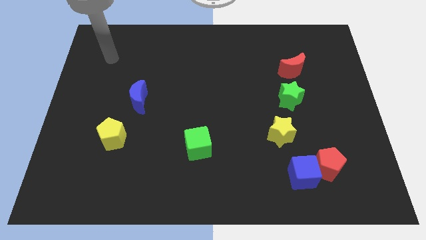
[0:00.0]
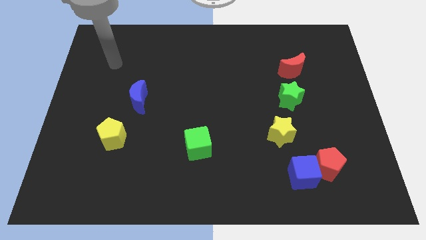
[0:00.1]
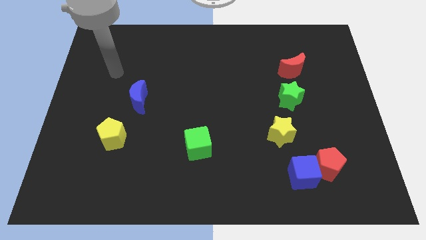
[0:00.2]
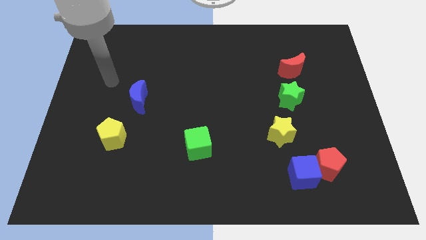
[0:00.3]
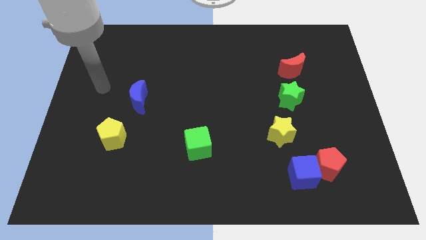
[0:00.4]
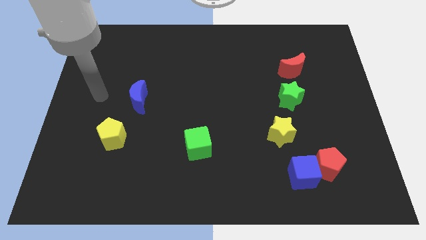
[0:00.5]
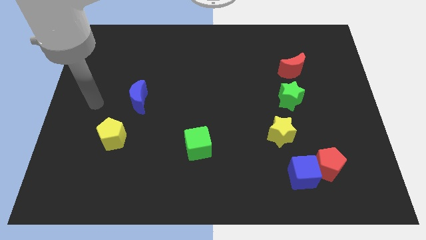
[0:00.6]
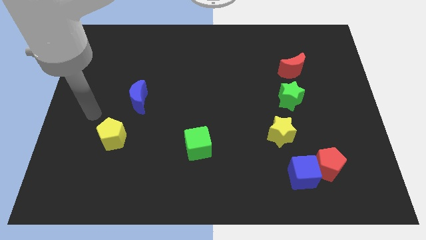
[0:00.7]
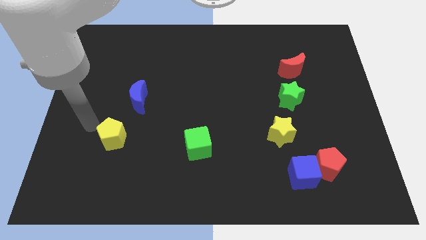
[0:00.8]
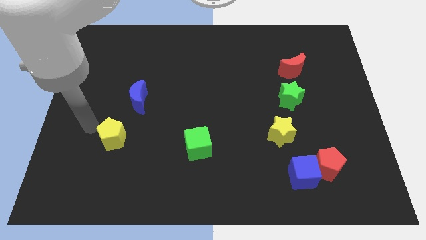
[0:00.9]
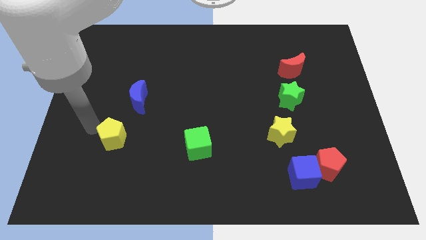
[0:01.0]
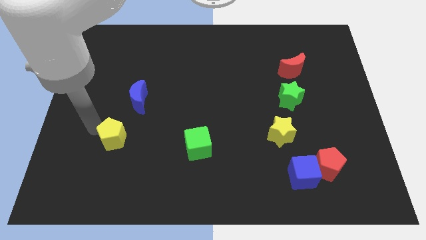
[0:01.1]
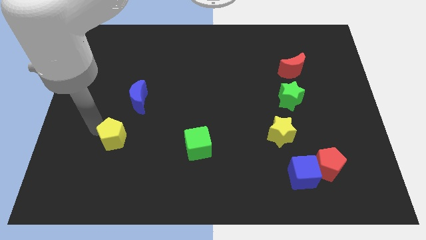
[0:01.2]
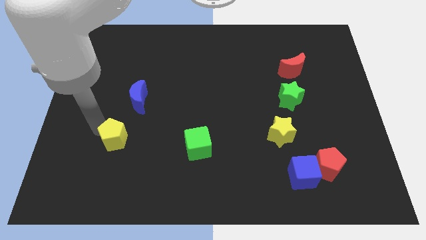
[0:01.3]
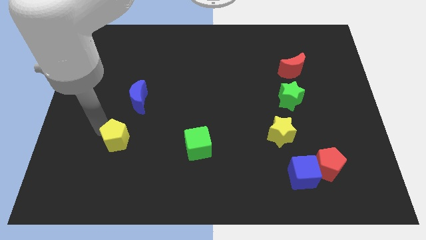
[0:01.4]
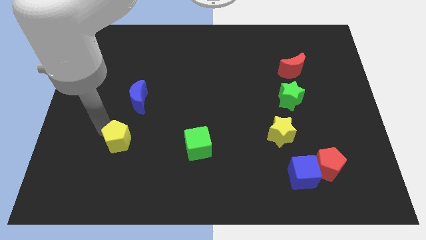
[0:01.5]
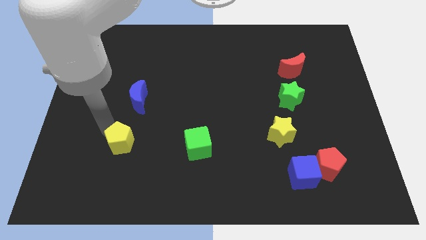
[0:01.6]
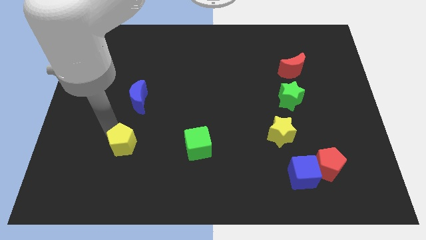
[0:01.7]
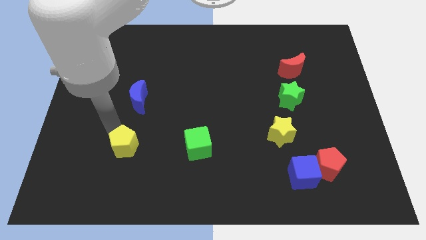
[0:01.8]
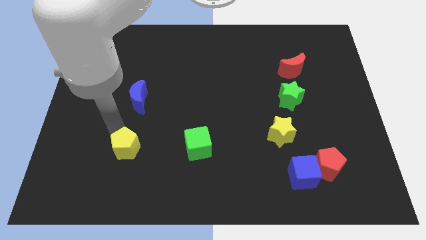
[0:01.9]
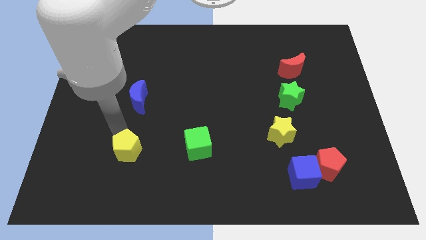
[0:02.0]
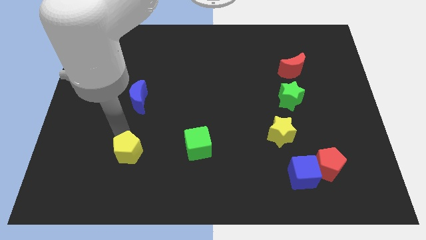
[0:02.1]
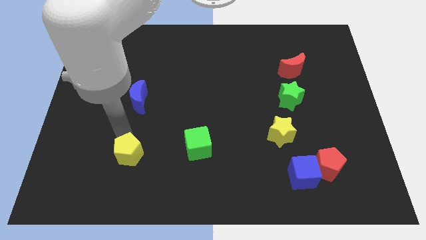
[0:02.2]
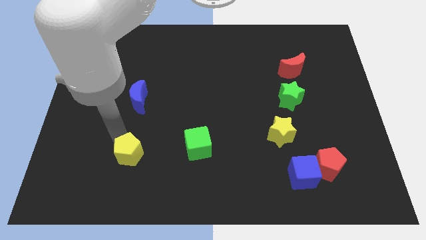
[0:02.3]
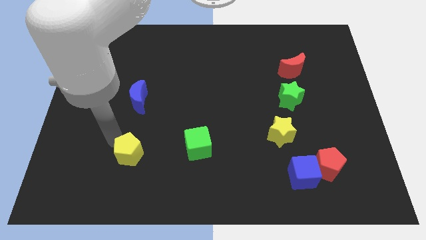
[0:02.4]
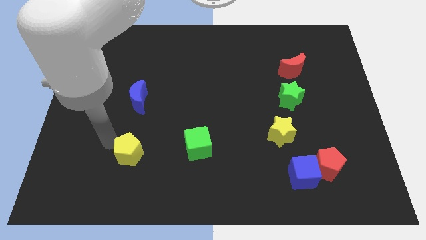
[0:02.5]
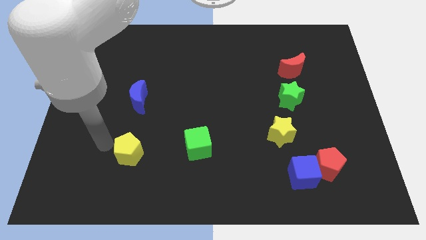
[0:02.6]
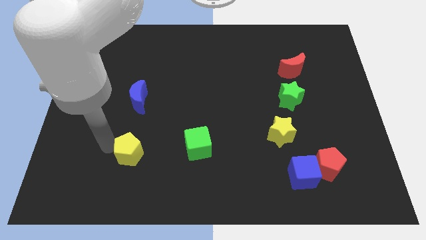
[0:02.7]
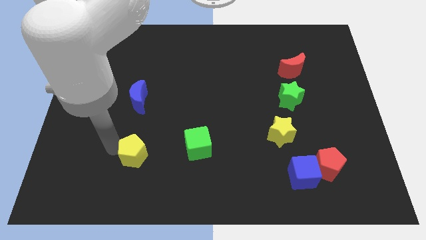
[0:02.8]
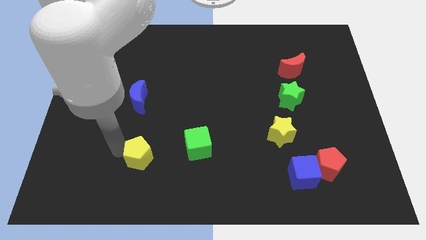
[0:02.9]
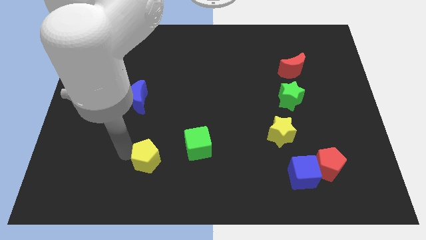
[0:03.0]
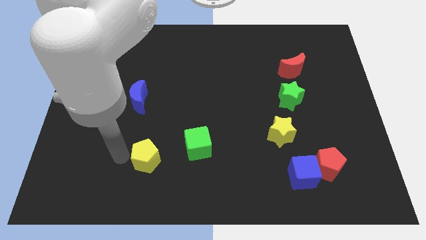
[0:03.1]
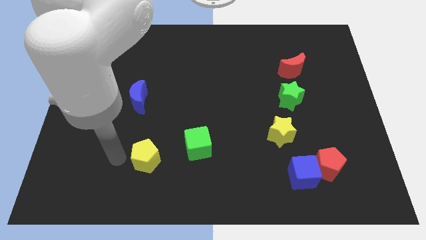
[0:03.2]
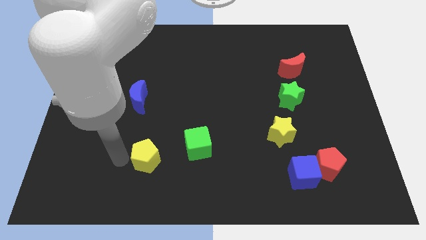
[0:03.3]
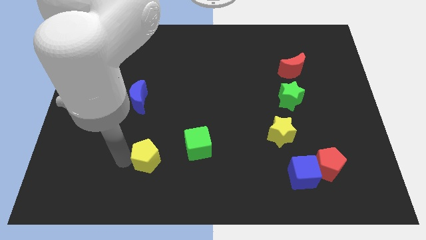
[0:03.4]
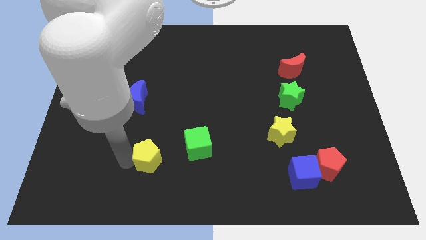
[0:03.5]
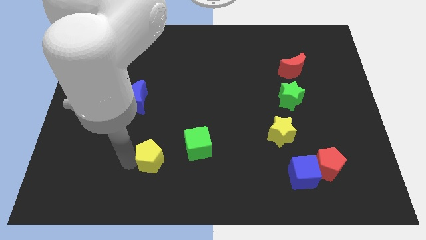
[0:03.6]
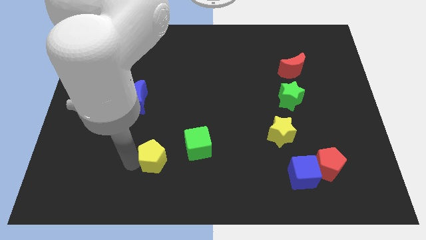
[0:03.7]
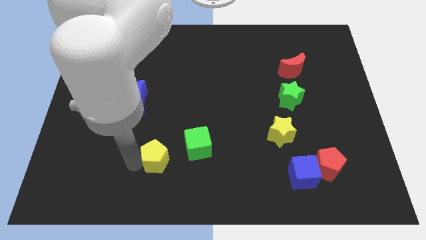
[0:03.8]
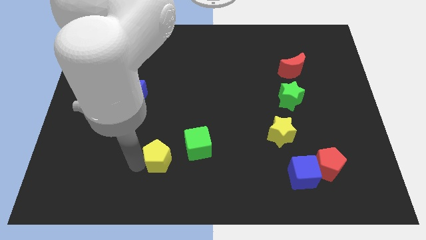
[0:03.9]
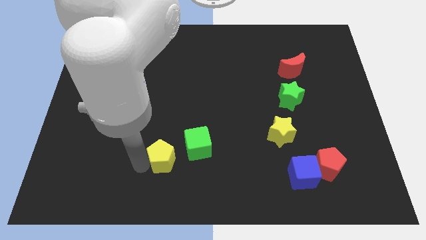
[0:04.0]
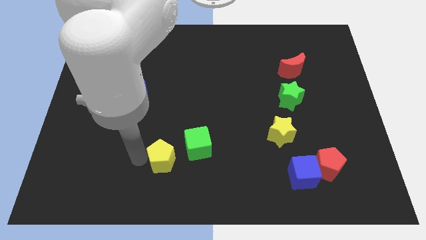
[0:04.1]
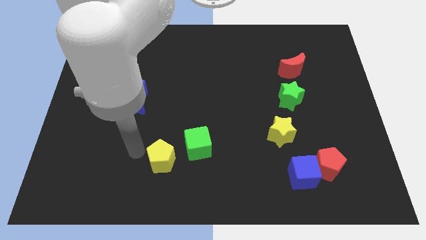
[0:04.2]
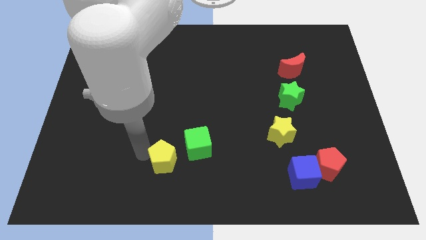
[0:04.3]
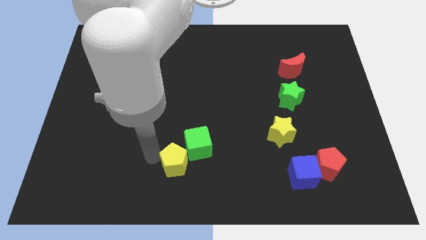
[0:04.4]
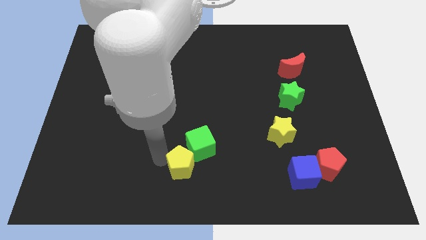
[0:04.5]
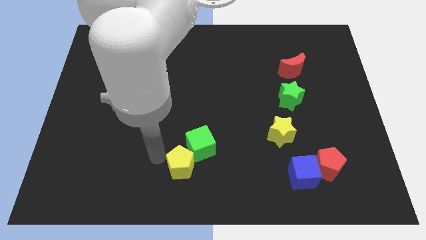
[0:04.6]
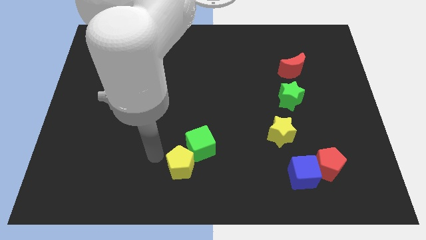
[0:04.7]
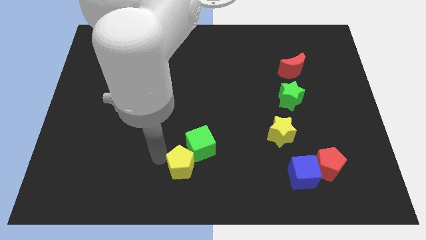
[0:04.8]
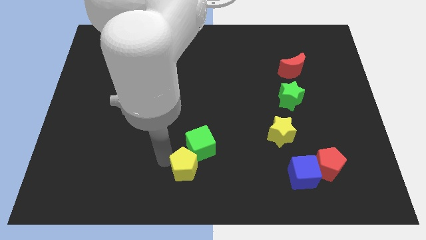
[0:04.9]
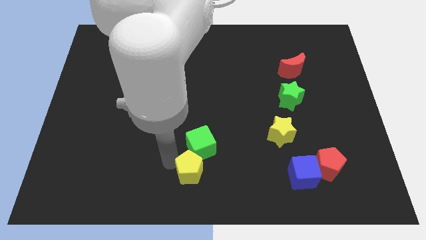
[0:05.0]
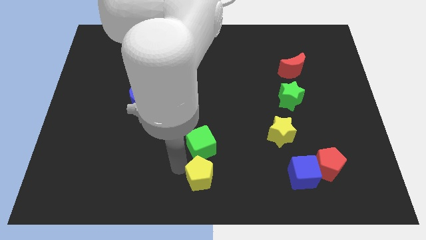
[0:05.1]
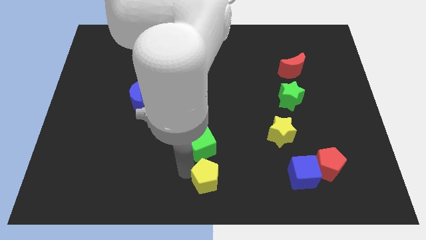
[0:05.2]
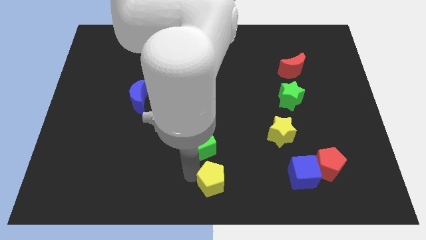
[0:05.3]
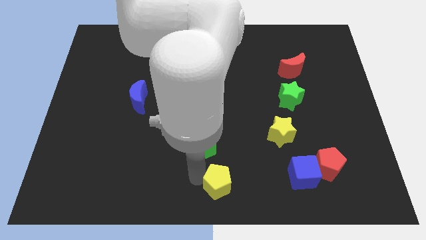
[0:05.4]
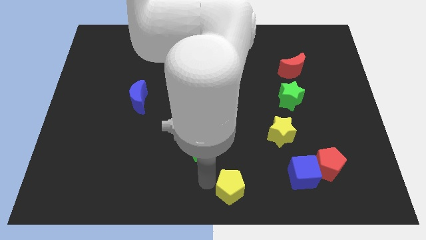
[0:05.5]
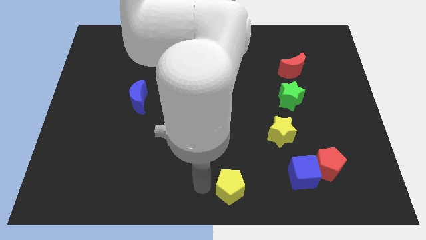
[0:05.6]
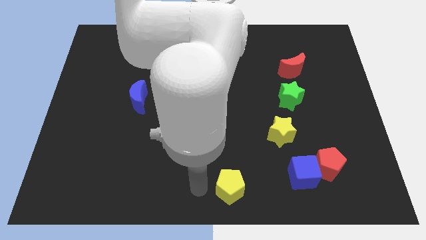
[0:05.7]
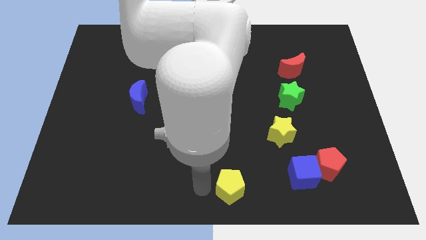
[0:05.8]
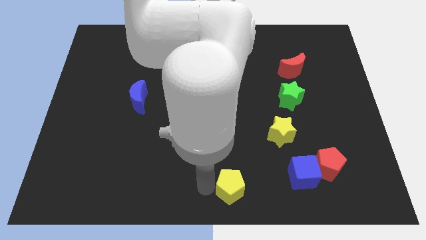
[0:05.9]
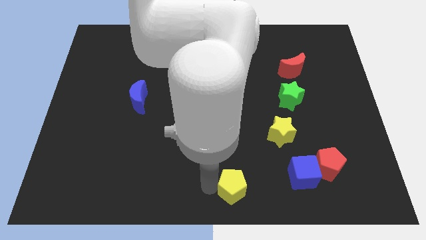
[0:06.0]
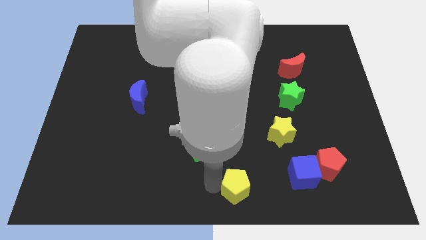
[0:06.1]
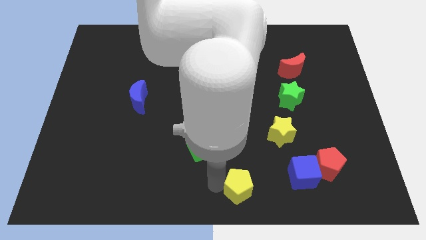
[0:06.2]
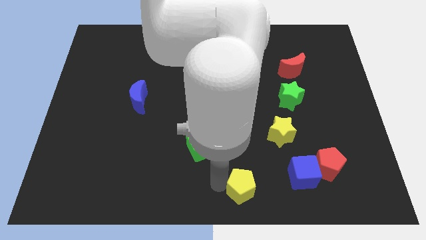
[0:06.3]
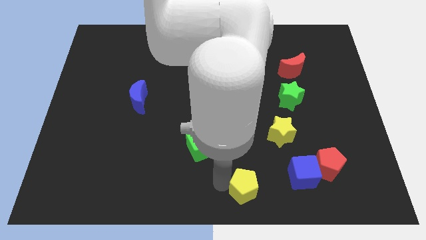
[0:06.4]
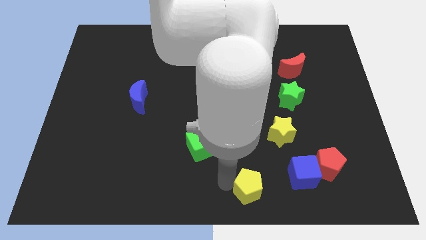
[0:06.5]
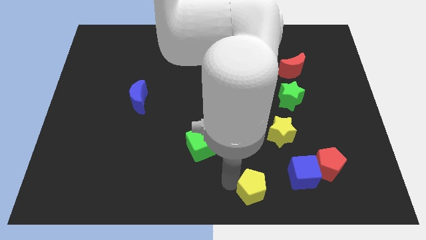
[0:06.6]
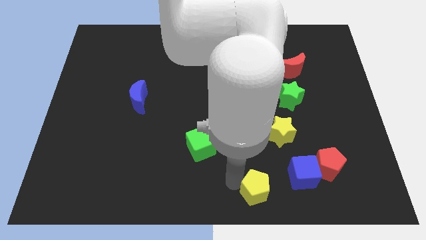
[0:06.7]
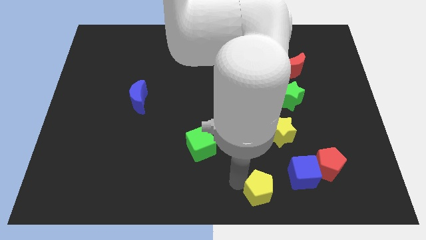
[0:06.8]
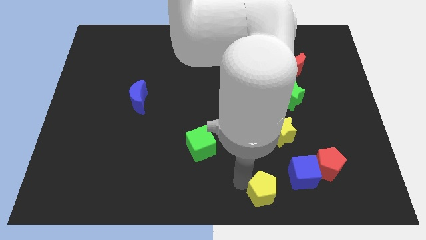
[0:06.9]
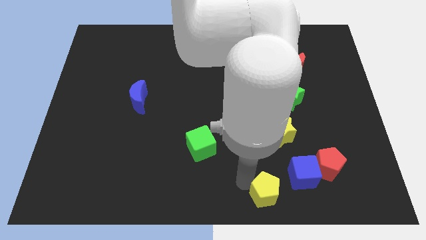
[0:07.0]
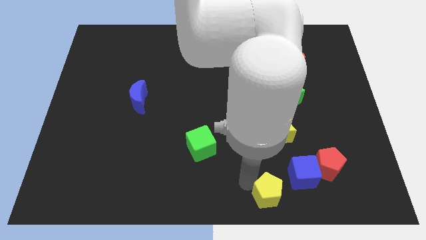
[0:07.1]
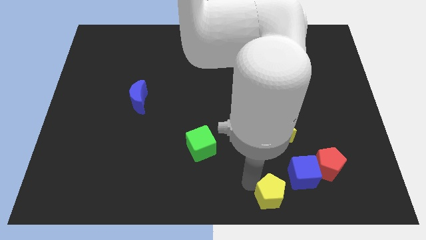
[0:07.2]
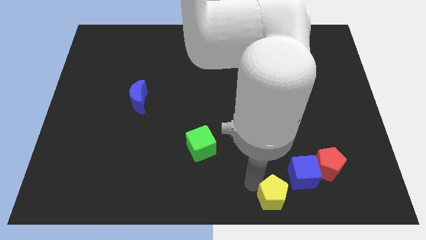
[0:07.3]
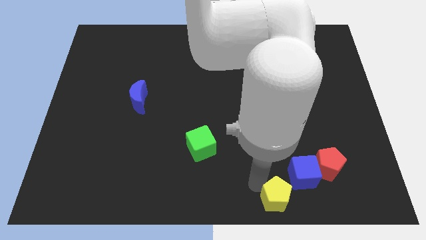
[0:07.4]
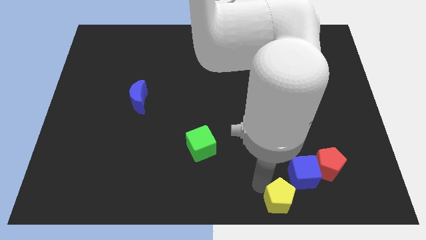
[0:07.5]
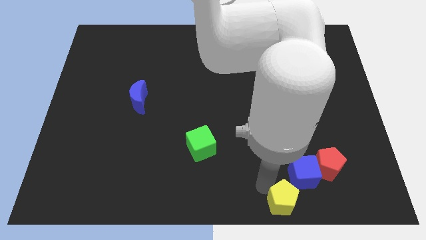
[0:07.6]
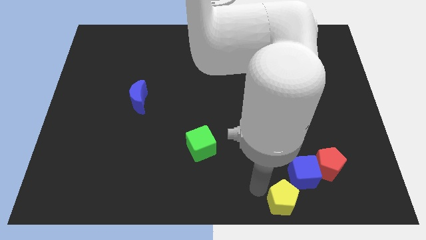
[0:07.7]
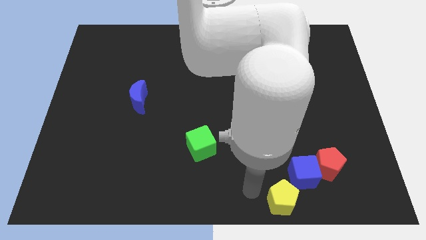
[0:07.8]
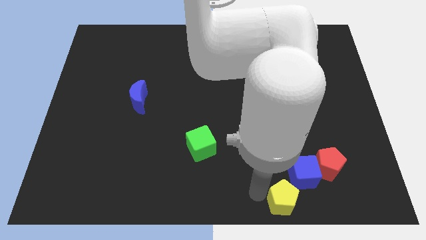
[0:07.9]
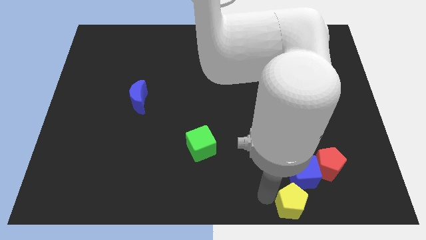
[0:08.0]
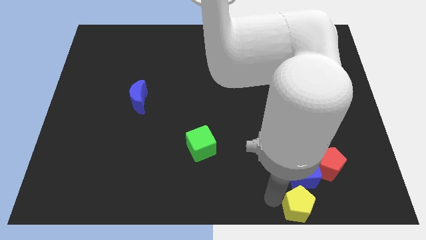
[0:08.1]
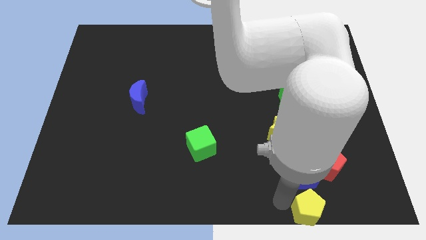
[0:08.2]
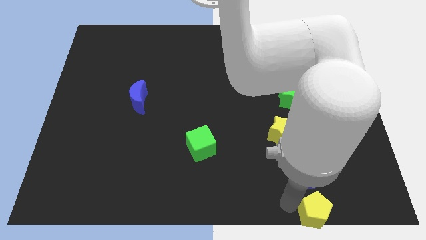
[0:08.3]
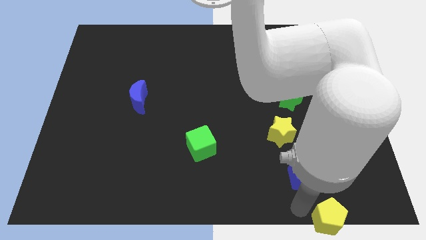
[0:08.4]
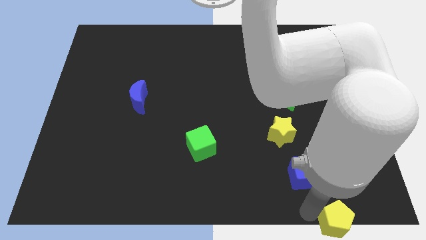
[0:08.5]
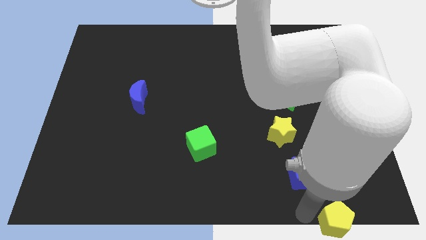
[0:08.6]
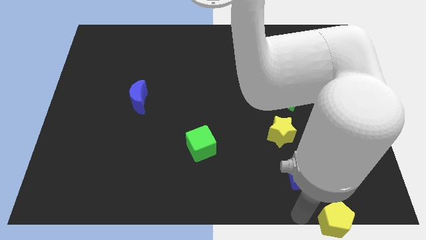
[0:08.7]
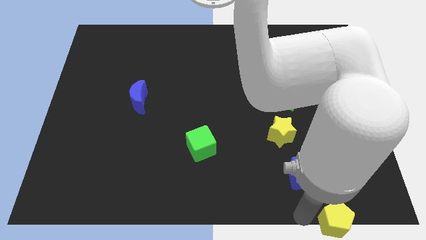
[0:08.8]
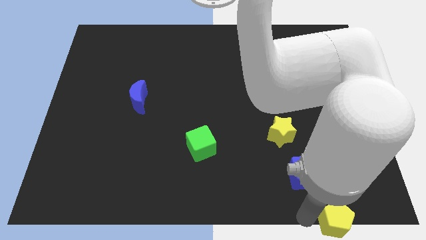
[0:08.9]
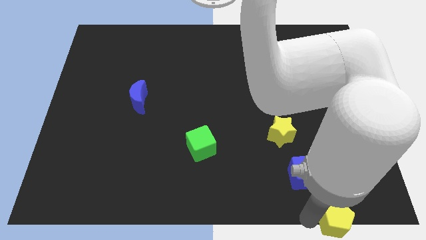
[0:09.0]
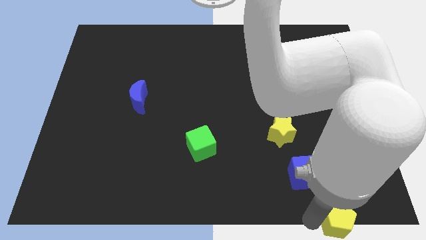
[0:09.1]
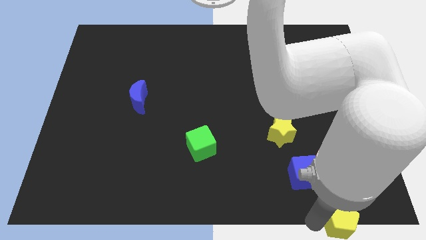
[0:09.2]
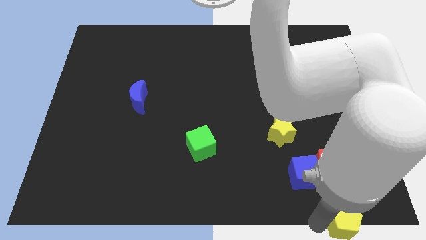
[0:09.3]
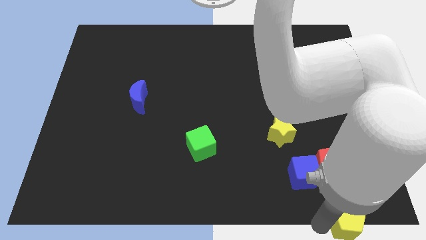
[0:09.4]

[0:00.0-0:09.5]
slide the yellow pentagon to the lower right corner
